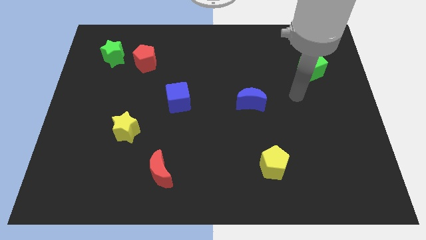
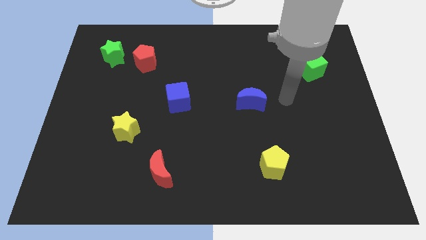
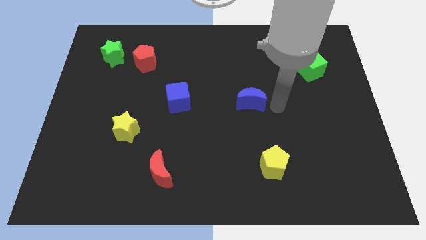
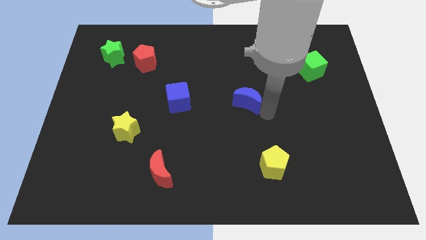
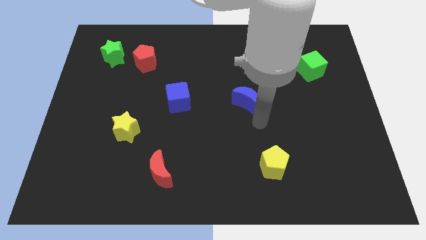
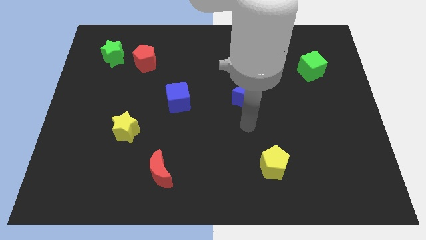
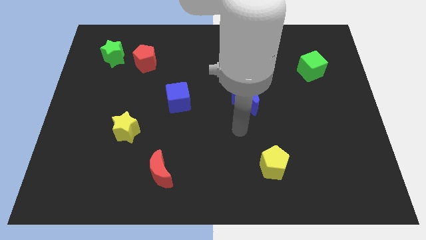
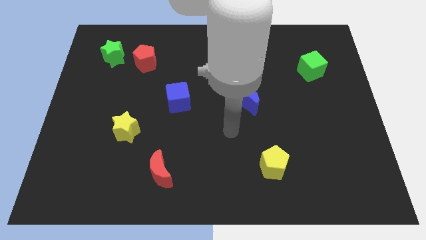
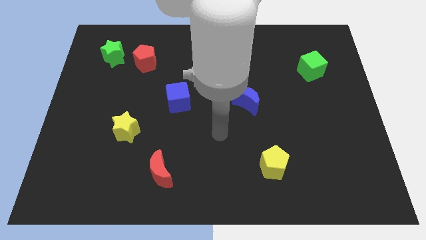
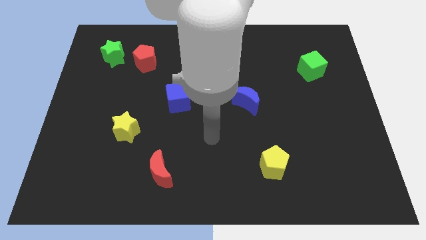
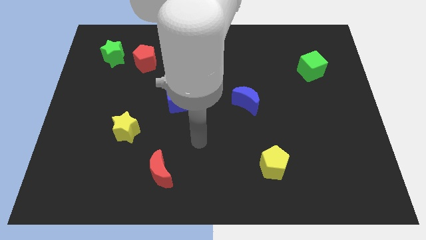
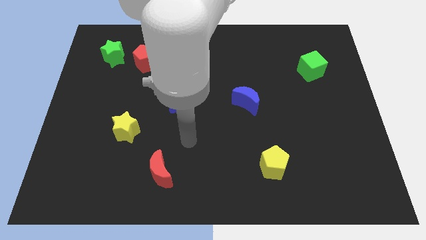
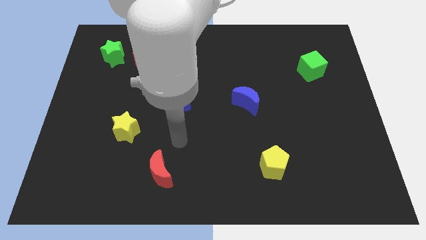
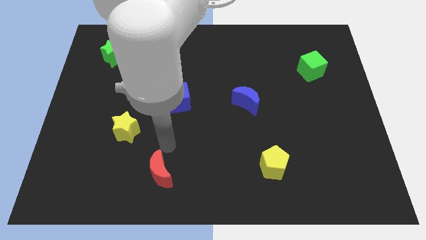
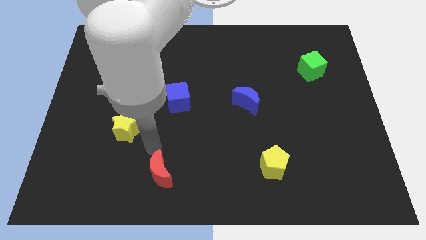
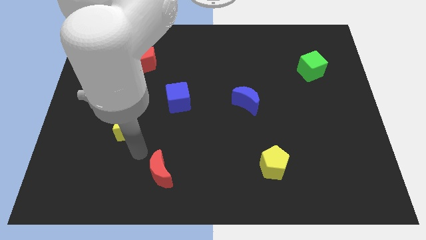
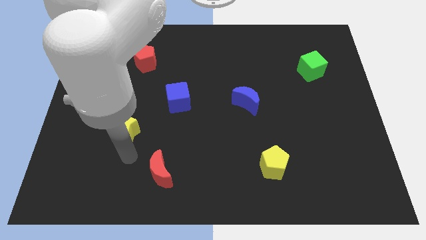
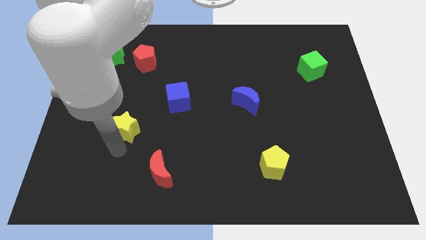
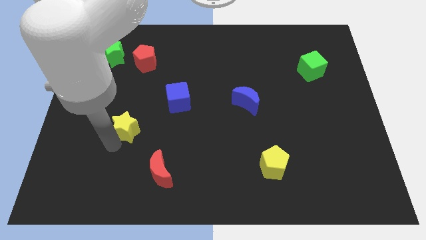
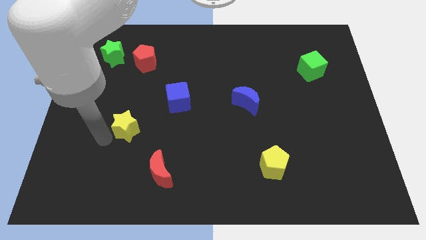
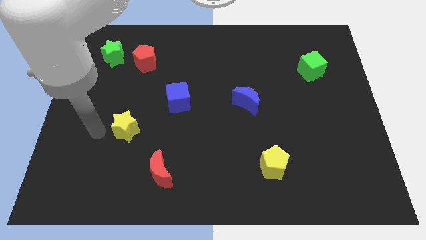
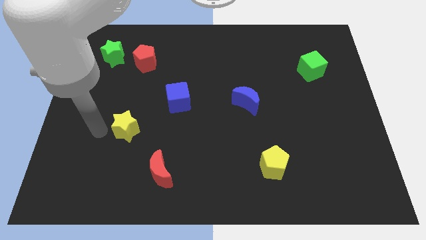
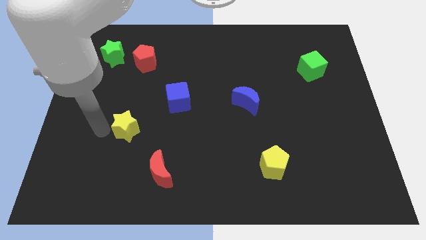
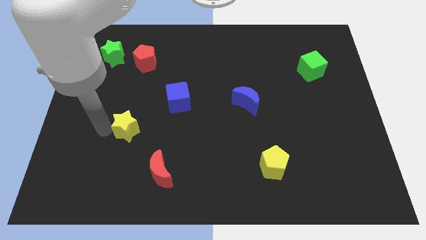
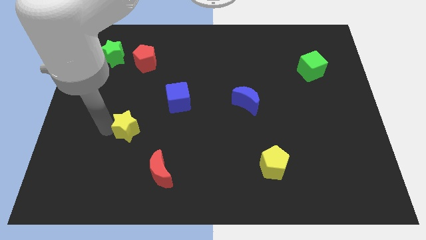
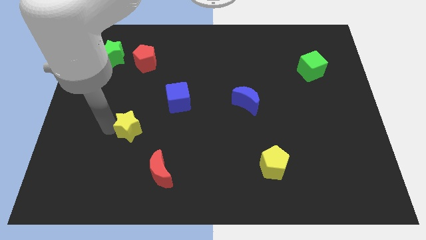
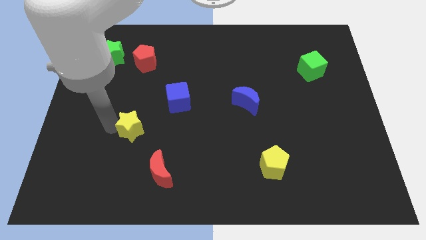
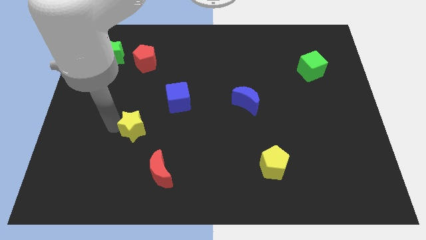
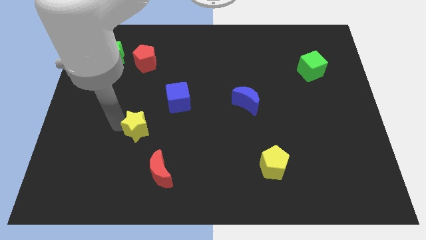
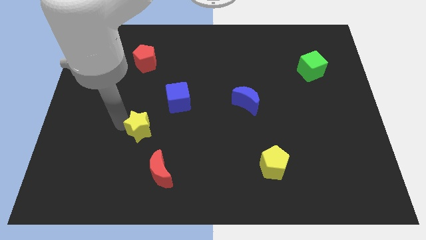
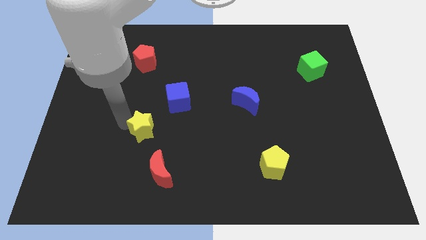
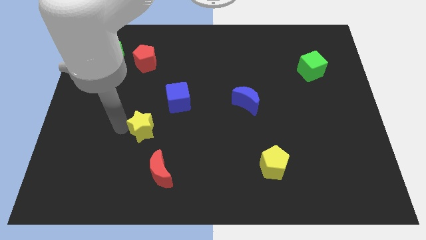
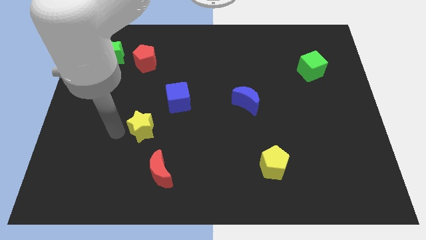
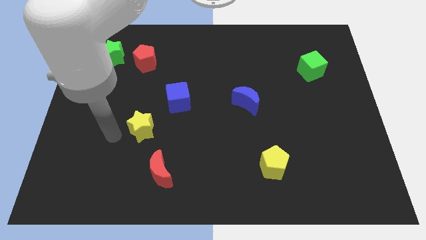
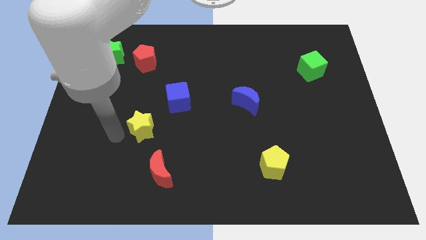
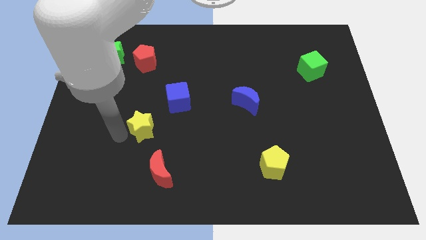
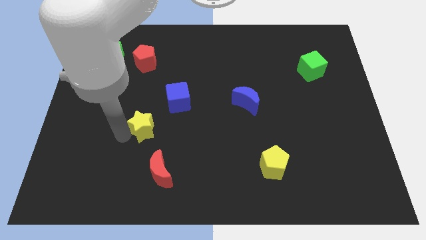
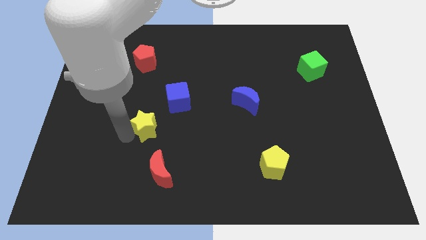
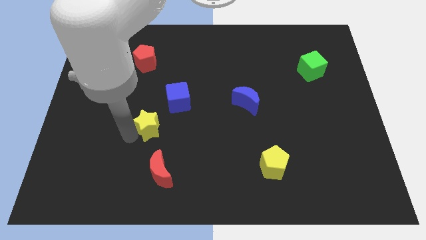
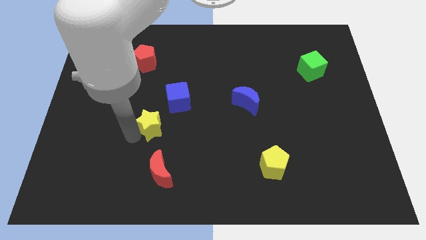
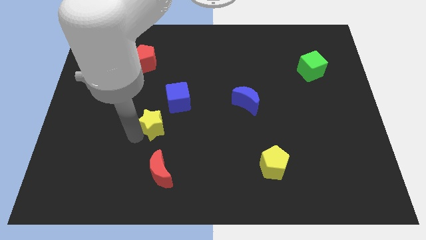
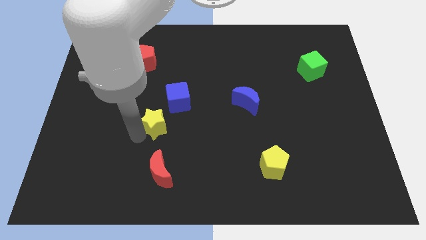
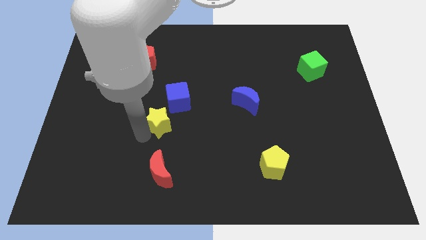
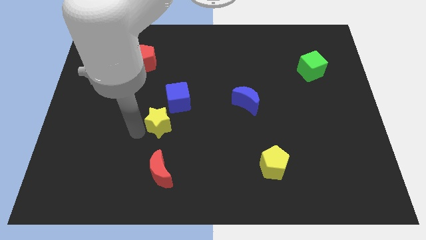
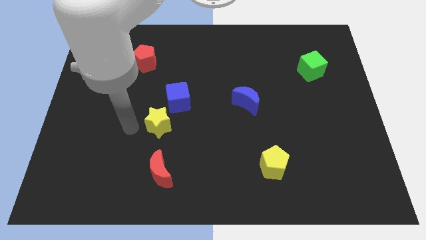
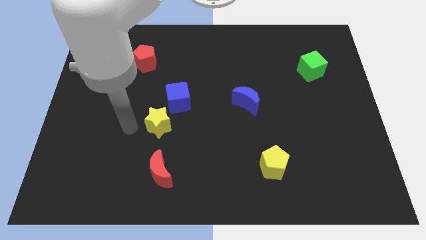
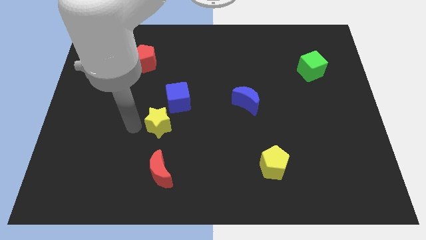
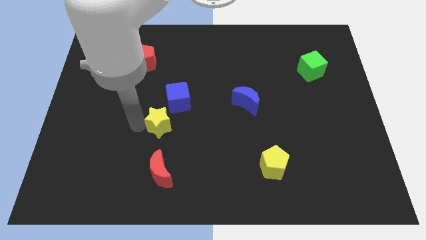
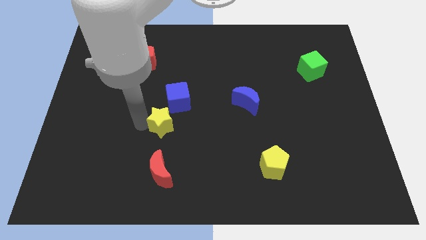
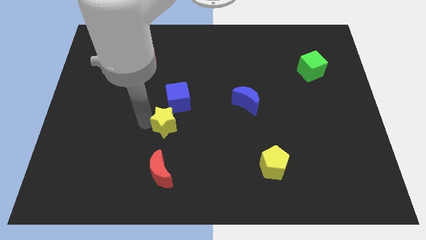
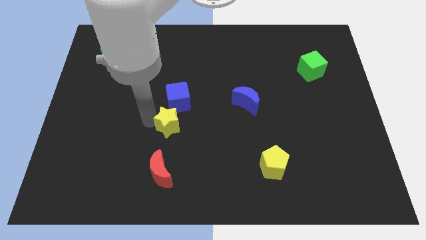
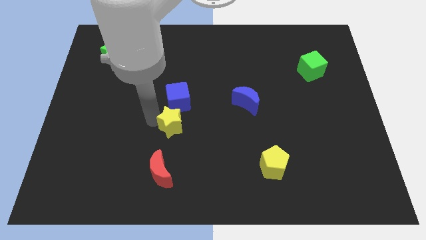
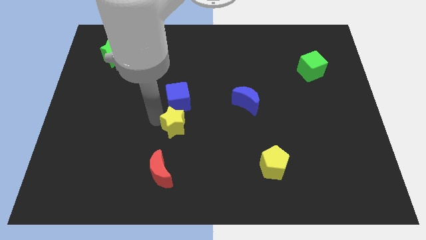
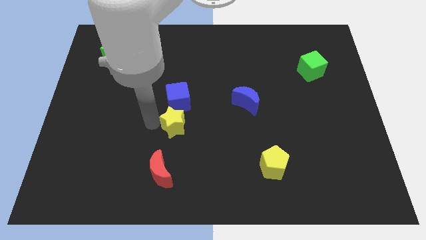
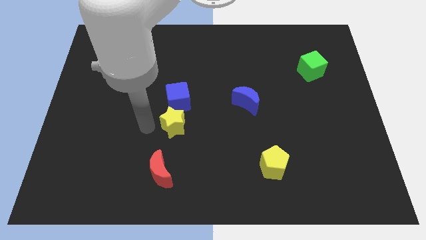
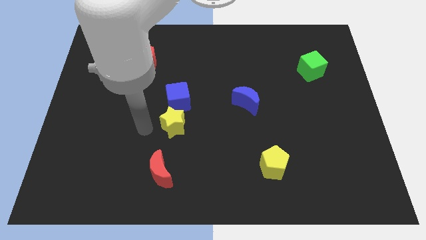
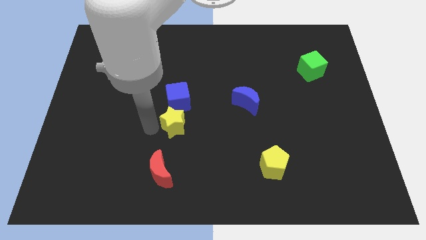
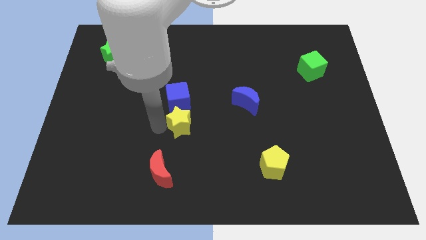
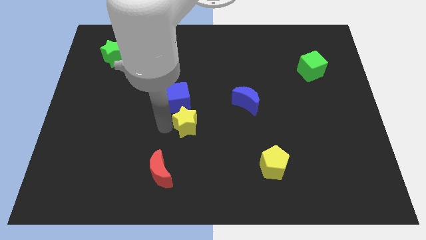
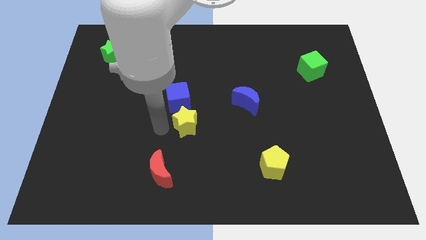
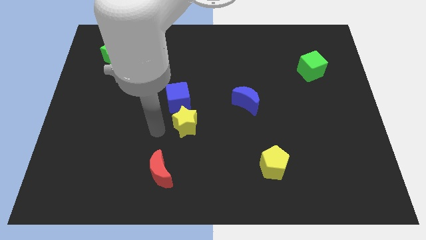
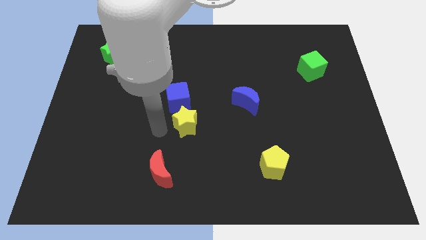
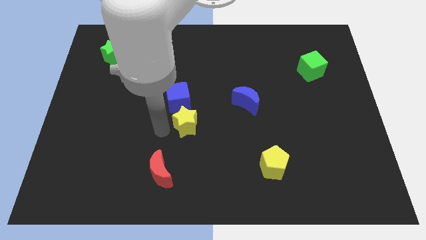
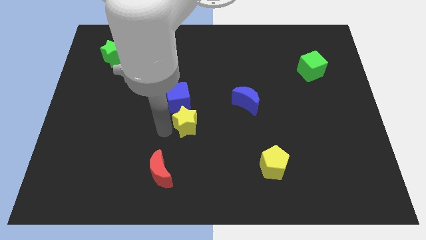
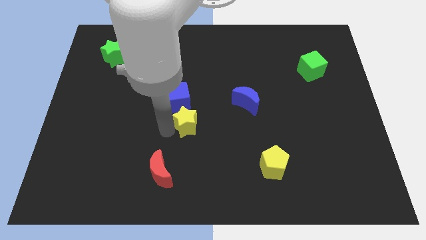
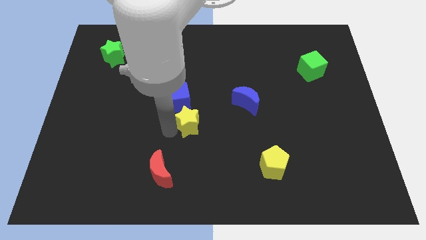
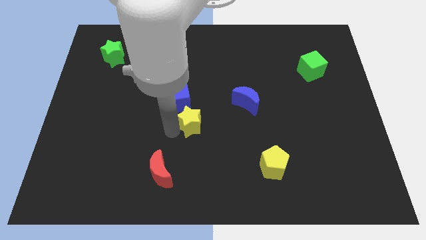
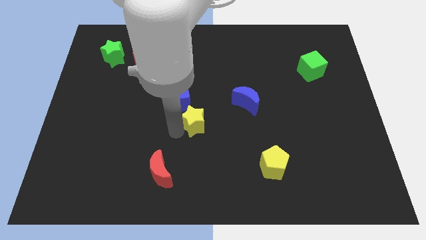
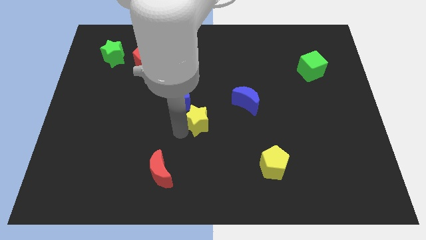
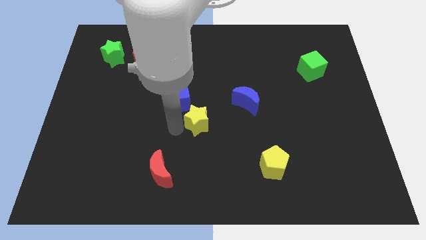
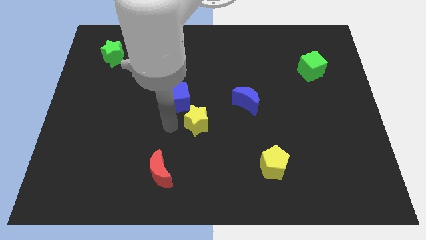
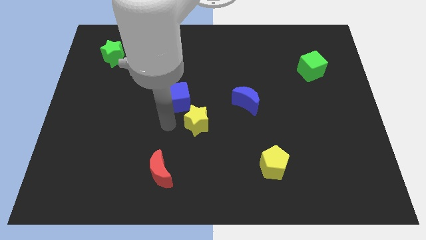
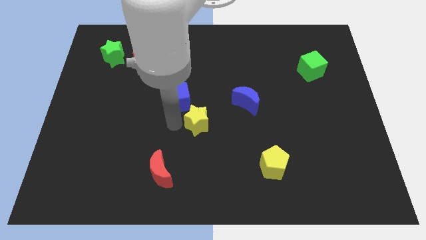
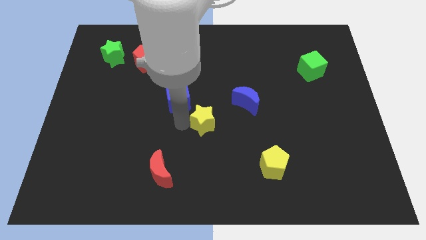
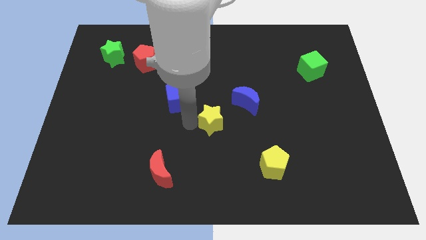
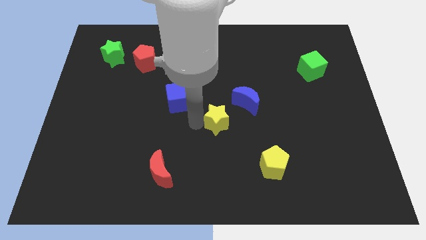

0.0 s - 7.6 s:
move the yellow star right

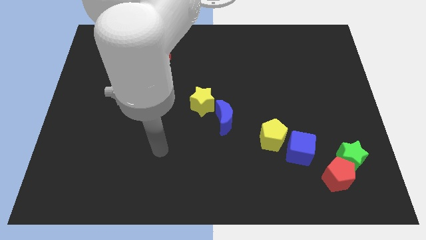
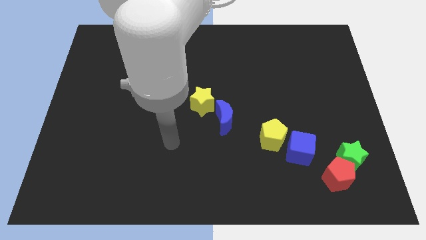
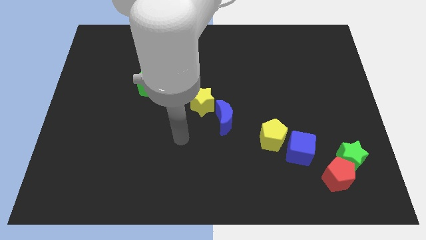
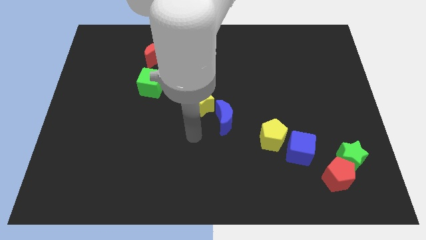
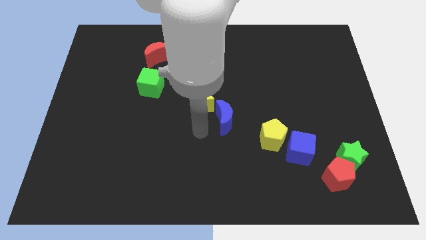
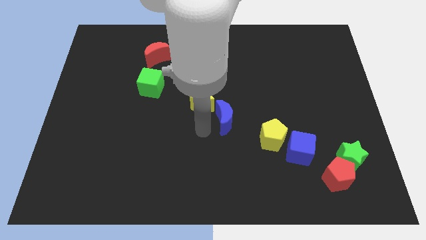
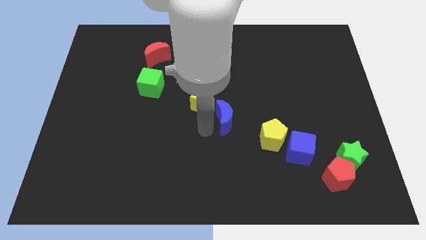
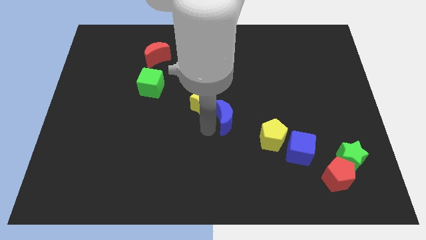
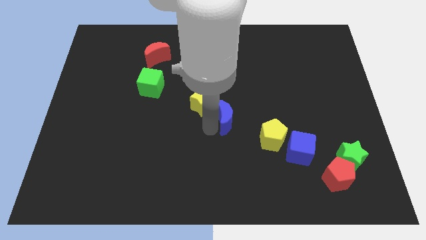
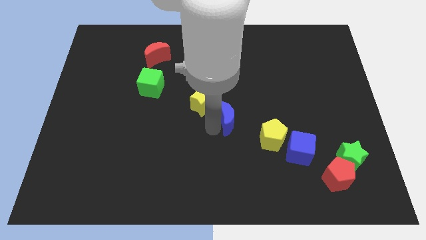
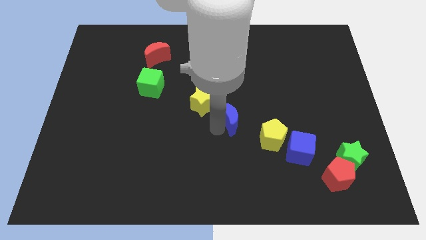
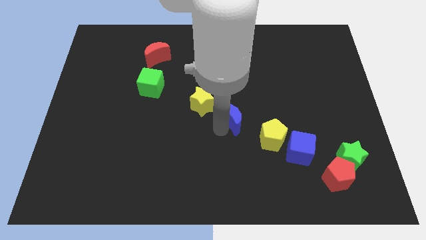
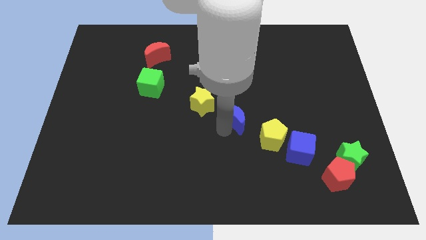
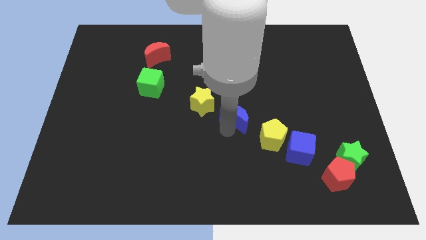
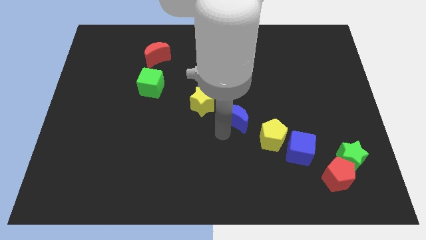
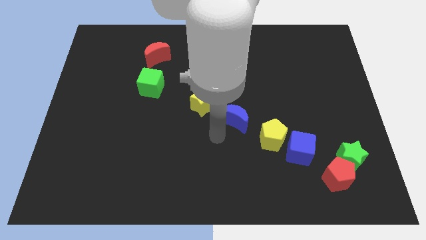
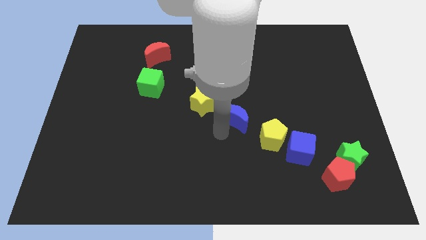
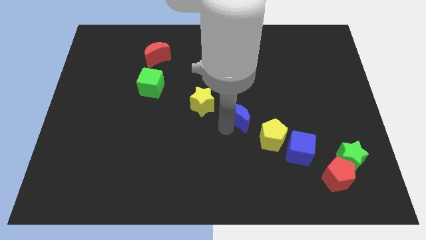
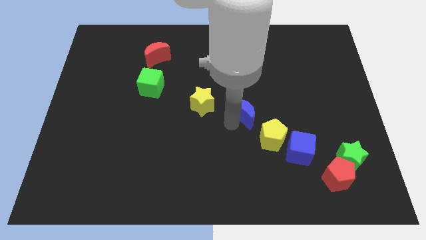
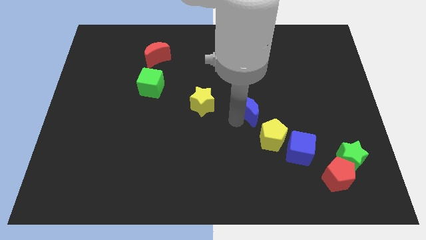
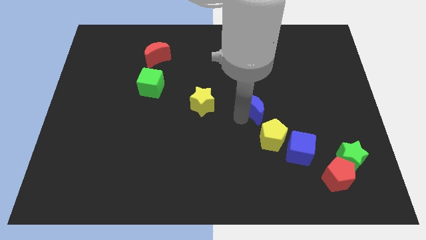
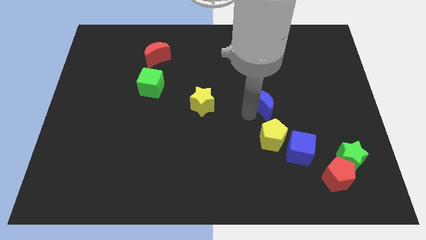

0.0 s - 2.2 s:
slide the blue moon upwards and then to the right somewhat
